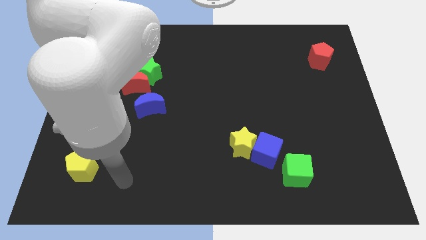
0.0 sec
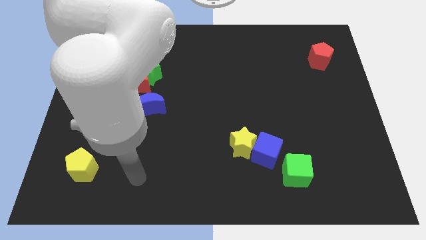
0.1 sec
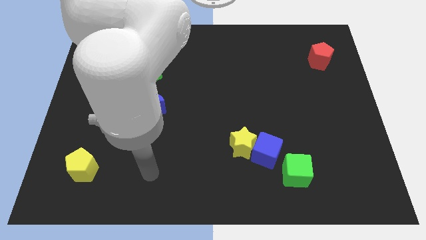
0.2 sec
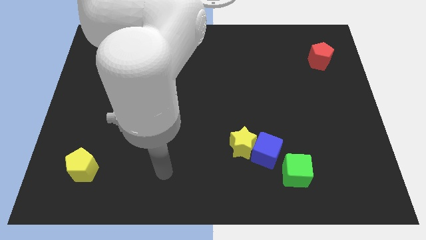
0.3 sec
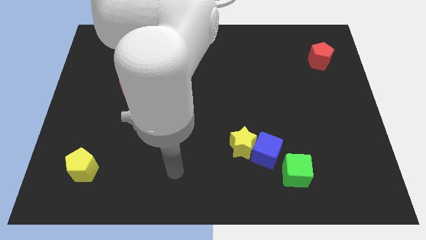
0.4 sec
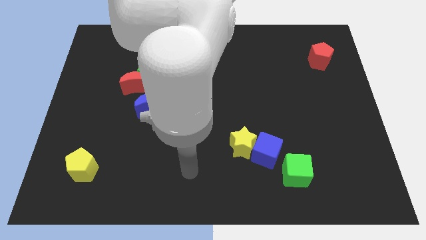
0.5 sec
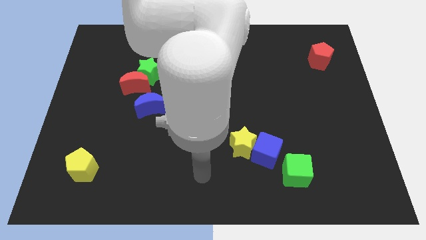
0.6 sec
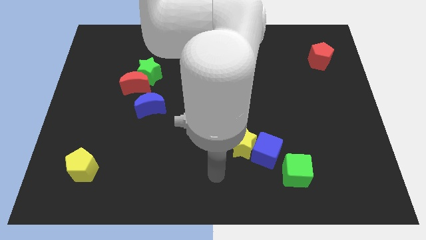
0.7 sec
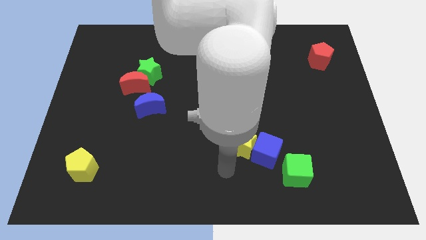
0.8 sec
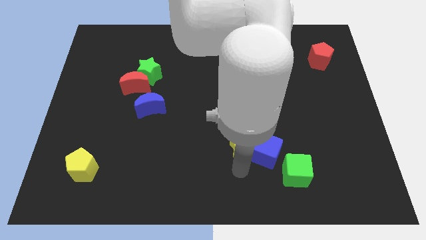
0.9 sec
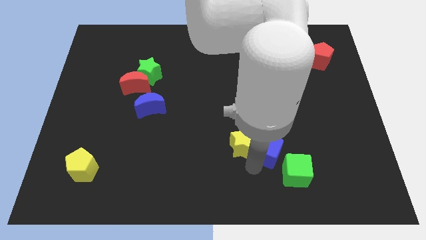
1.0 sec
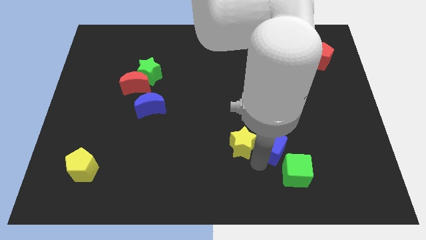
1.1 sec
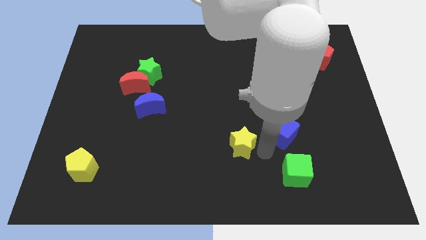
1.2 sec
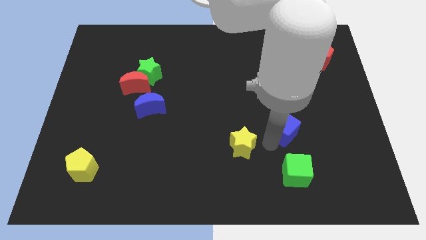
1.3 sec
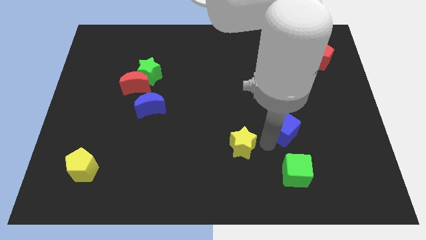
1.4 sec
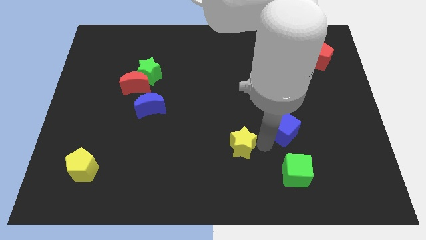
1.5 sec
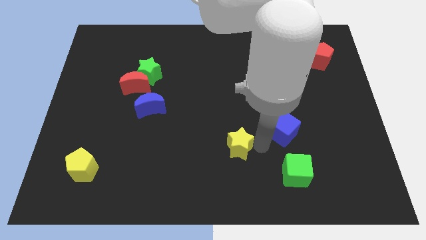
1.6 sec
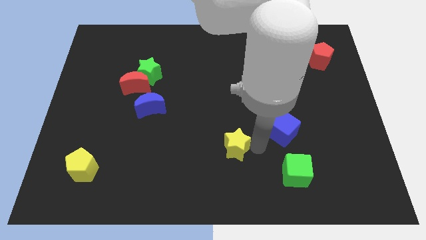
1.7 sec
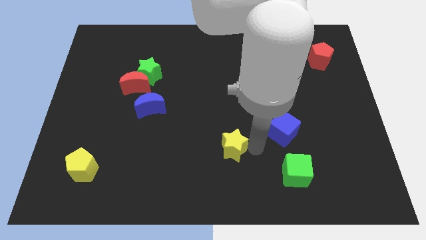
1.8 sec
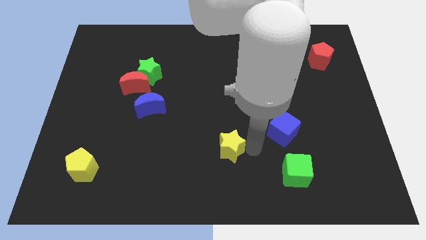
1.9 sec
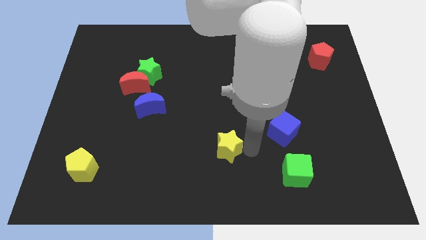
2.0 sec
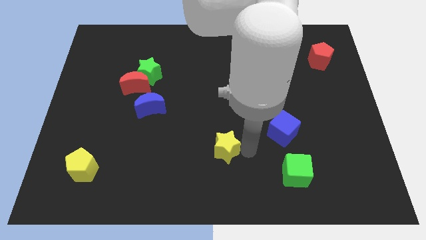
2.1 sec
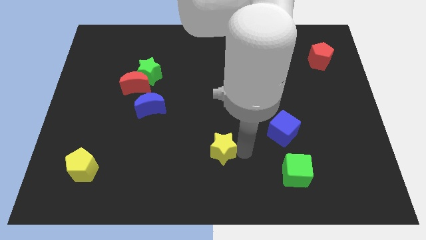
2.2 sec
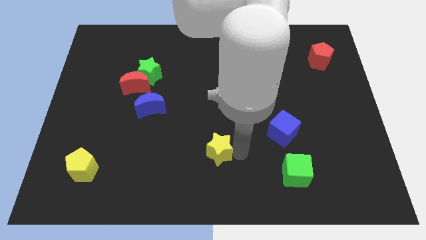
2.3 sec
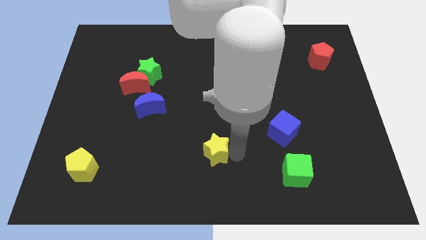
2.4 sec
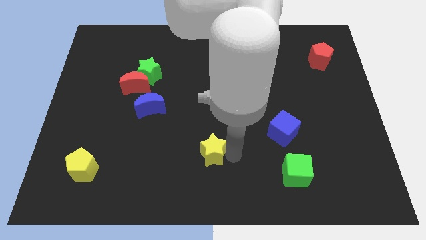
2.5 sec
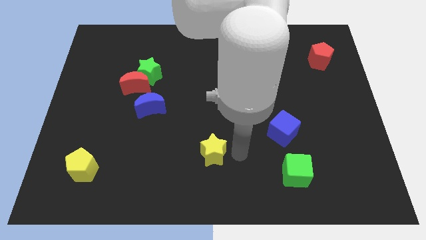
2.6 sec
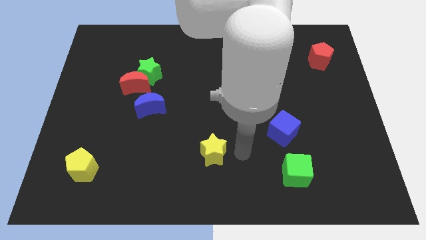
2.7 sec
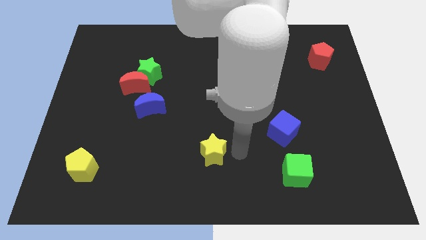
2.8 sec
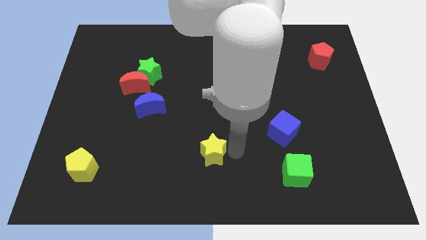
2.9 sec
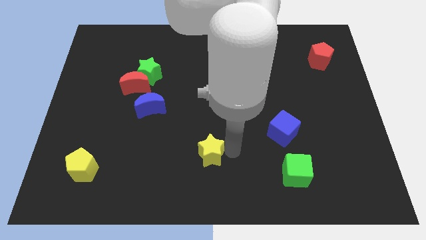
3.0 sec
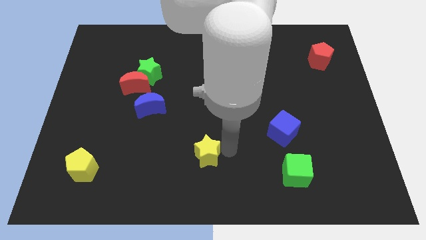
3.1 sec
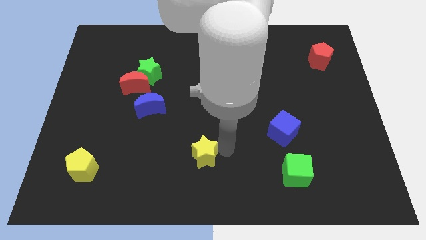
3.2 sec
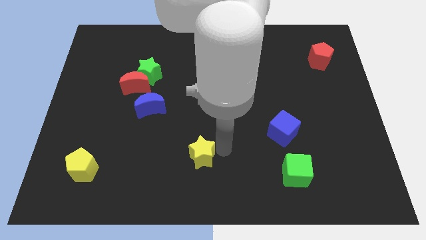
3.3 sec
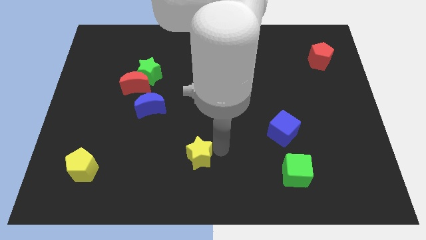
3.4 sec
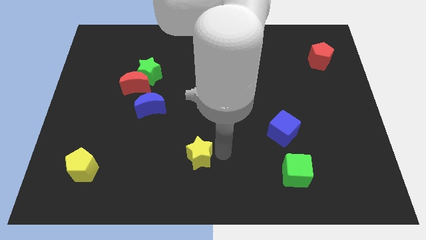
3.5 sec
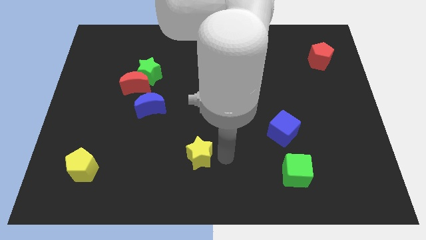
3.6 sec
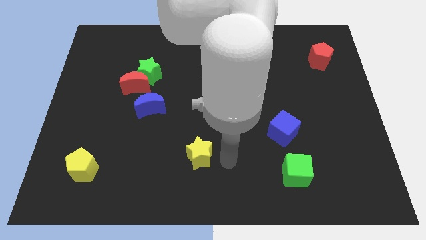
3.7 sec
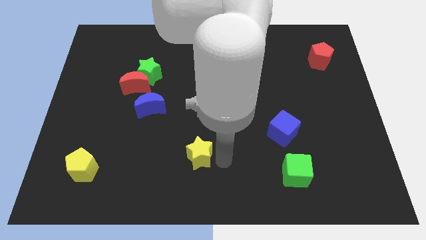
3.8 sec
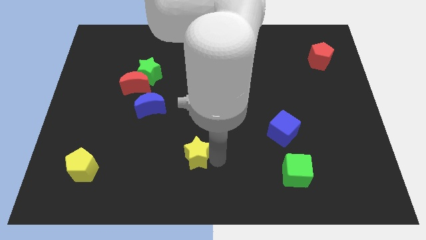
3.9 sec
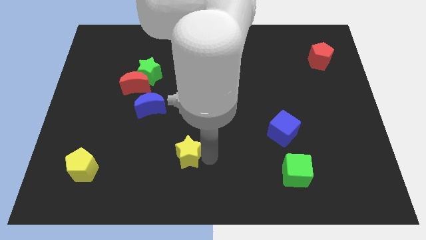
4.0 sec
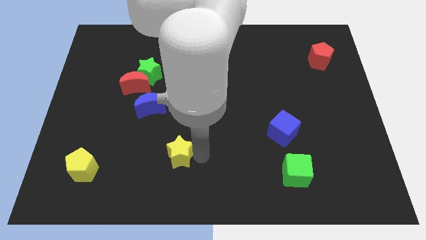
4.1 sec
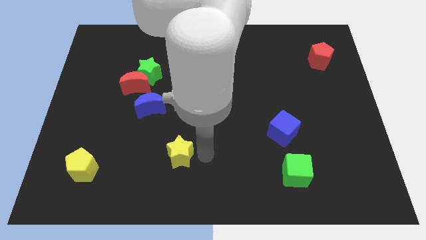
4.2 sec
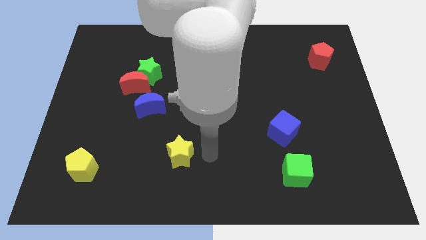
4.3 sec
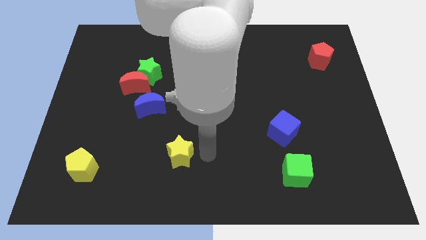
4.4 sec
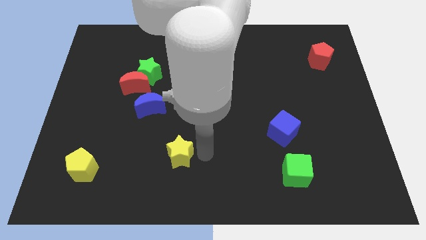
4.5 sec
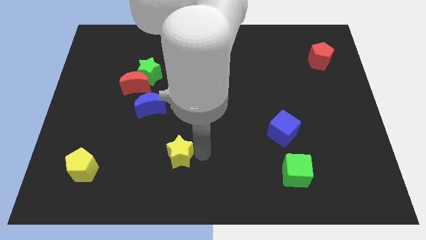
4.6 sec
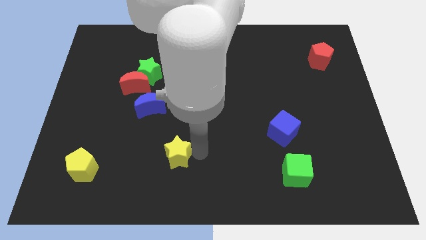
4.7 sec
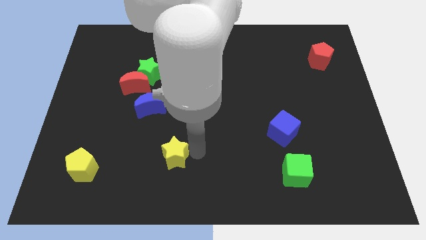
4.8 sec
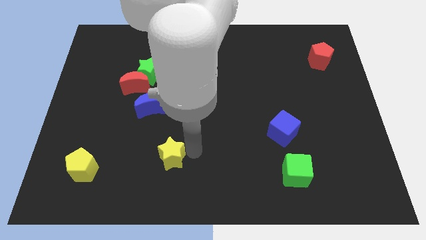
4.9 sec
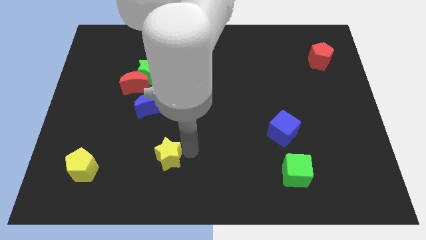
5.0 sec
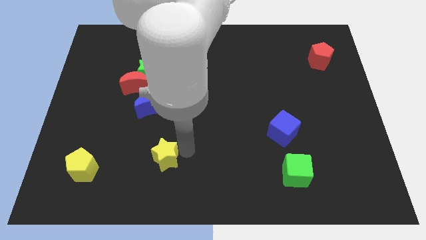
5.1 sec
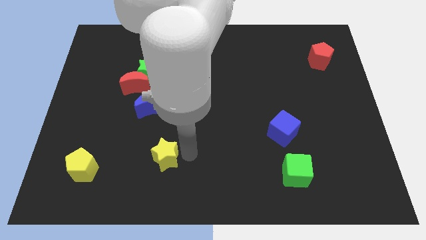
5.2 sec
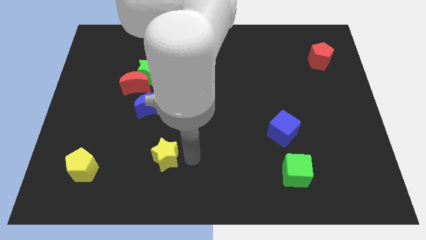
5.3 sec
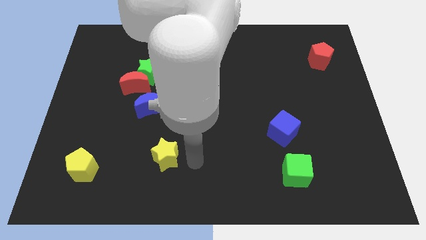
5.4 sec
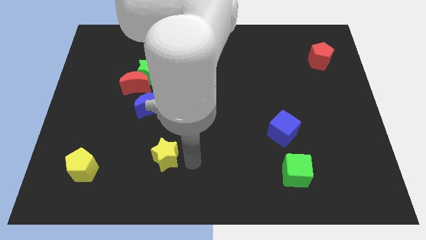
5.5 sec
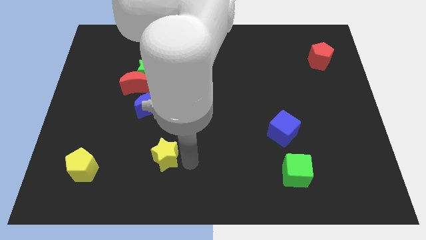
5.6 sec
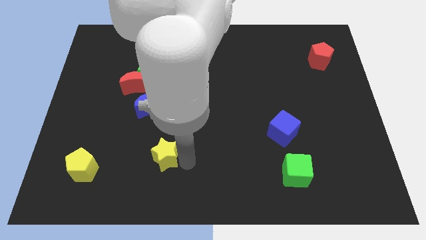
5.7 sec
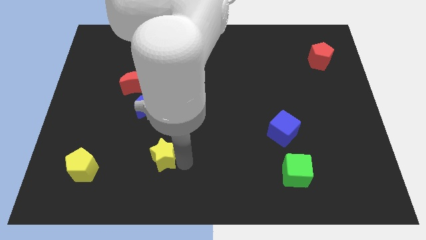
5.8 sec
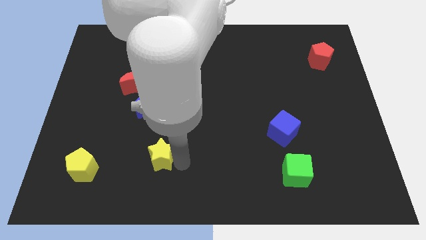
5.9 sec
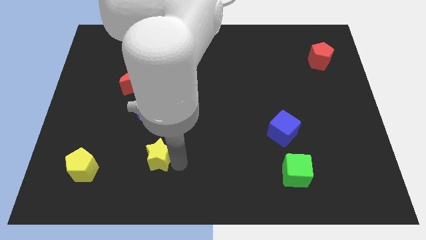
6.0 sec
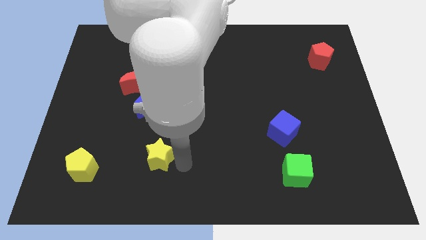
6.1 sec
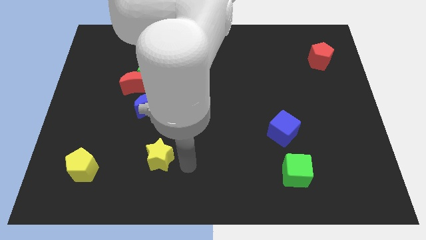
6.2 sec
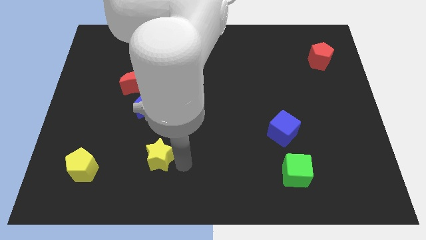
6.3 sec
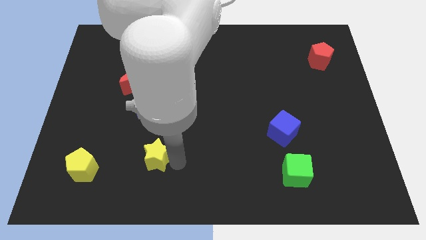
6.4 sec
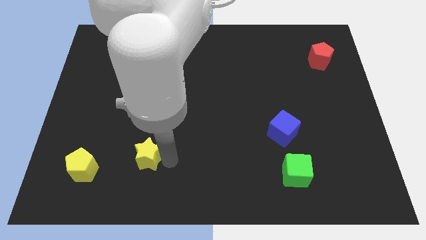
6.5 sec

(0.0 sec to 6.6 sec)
slide the yellow star left

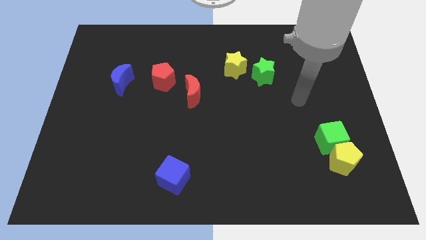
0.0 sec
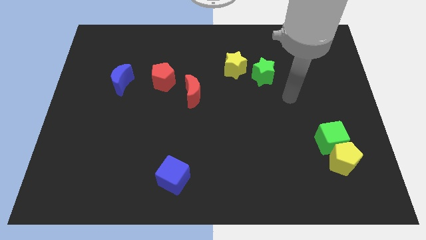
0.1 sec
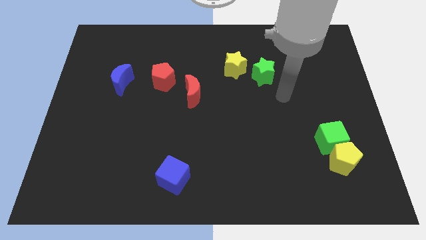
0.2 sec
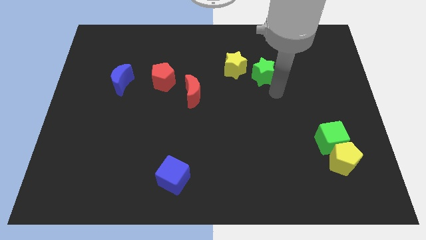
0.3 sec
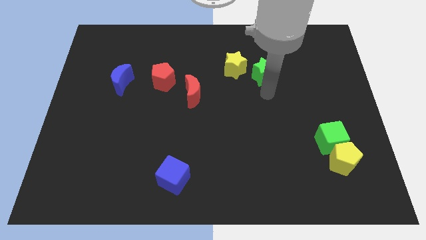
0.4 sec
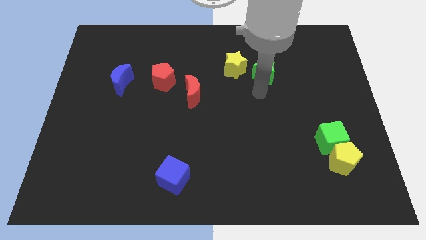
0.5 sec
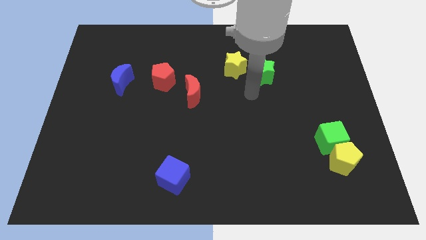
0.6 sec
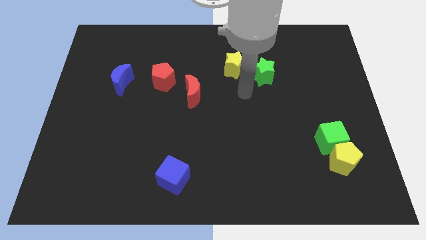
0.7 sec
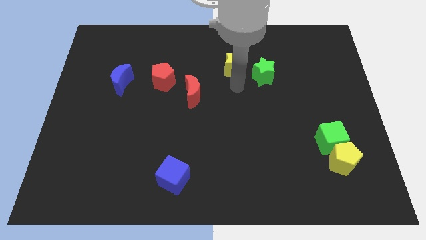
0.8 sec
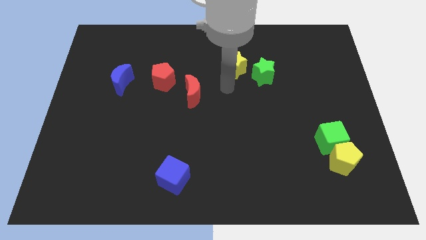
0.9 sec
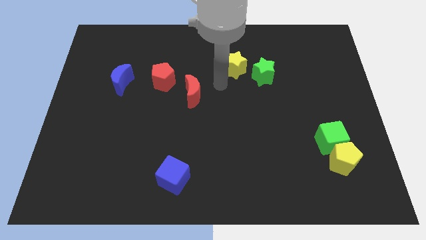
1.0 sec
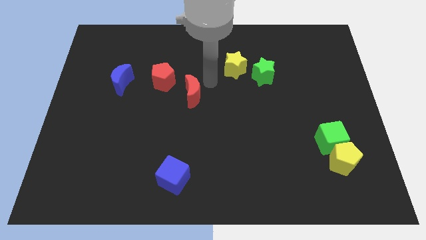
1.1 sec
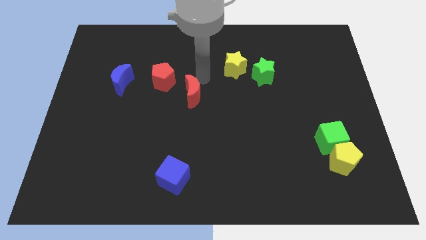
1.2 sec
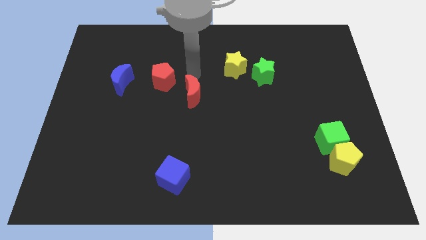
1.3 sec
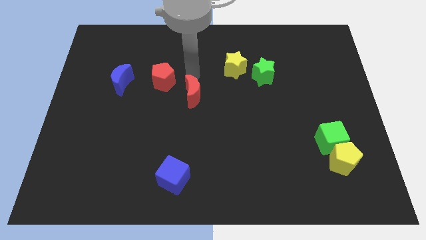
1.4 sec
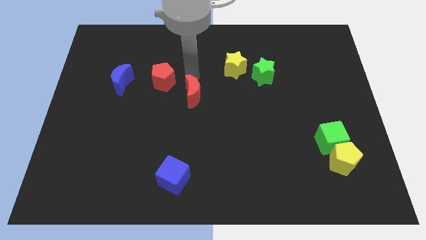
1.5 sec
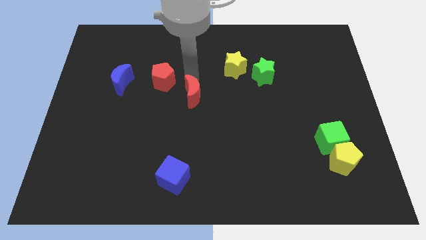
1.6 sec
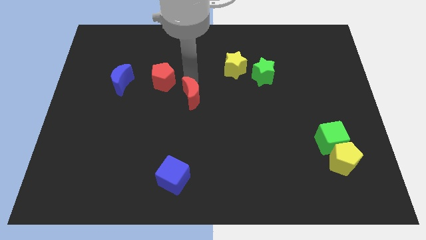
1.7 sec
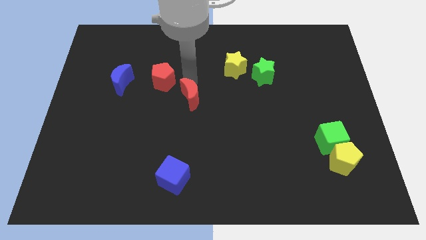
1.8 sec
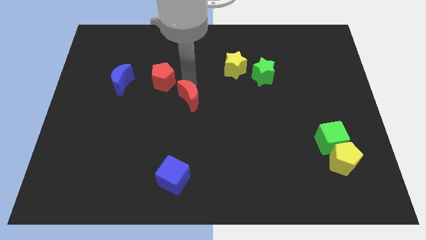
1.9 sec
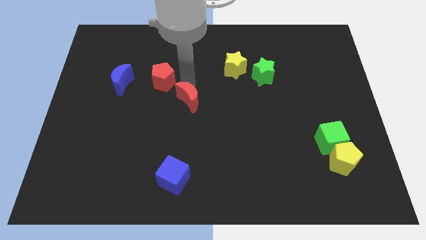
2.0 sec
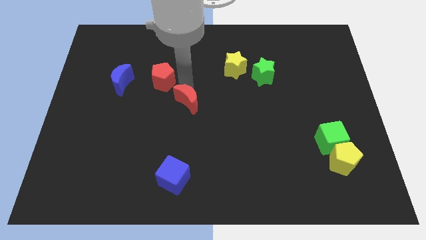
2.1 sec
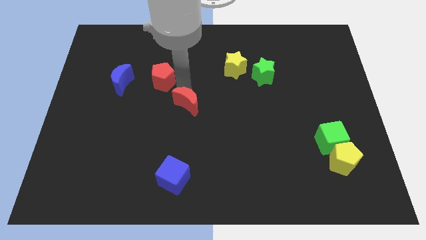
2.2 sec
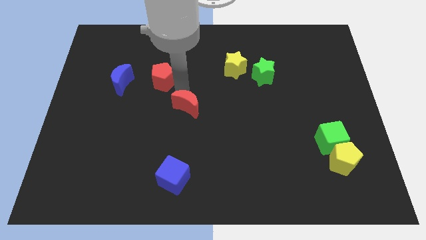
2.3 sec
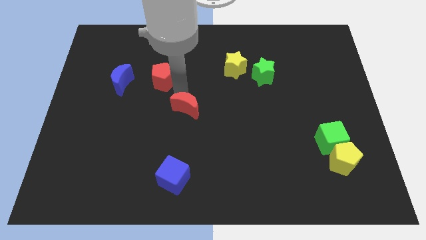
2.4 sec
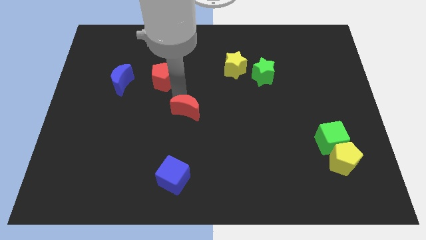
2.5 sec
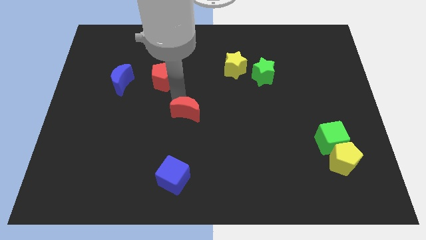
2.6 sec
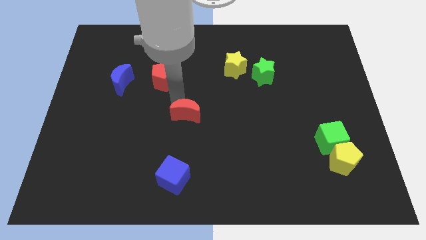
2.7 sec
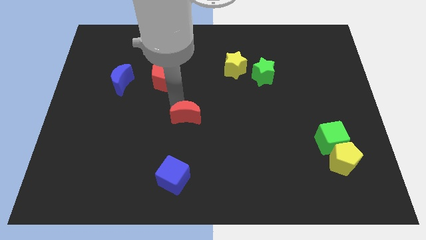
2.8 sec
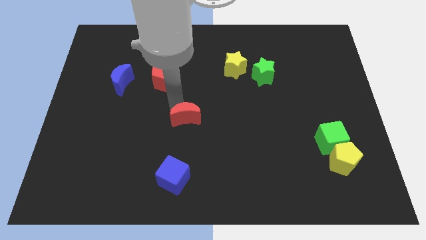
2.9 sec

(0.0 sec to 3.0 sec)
slide the red moon downwards a little bit
